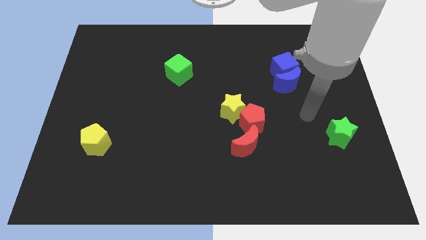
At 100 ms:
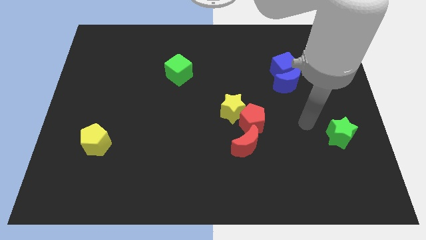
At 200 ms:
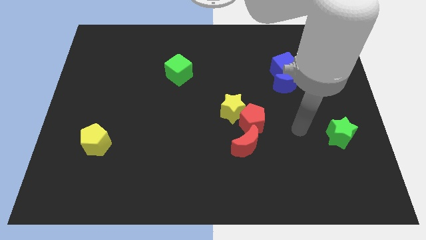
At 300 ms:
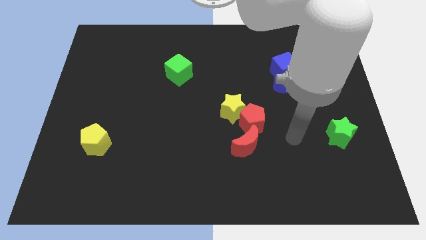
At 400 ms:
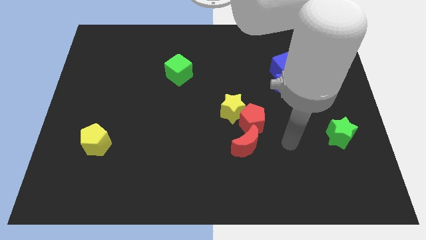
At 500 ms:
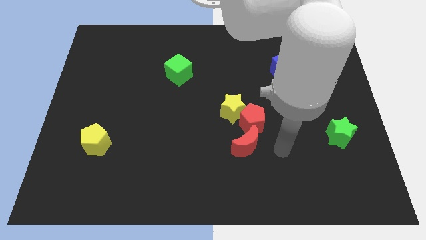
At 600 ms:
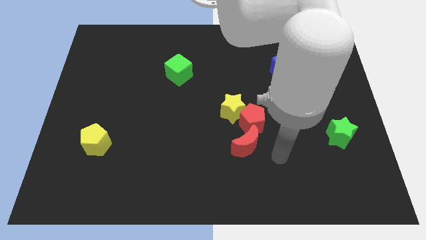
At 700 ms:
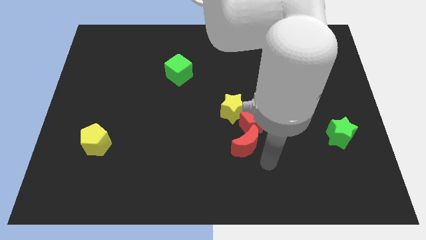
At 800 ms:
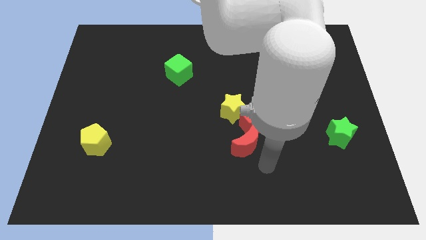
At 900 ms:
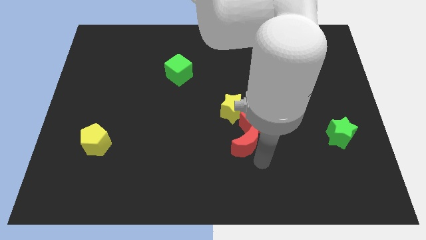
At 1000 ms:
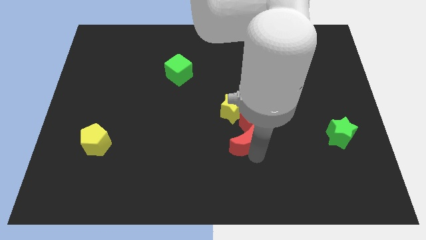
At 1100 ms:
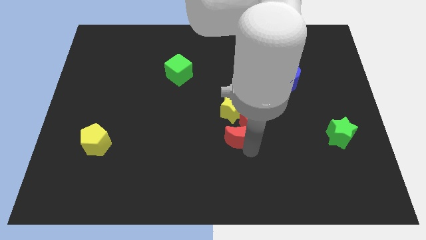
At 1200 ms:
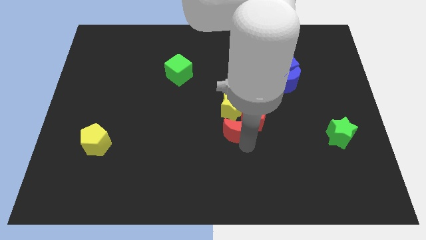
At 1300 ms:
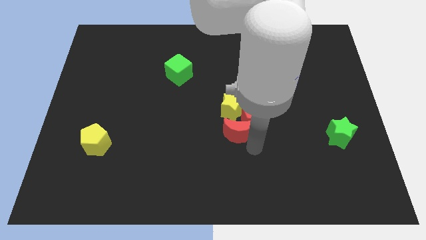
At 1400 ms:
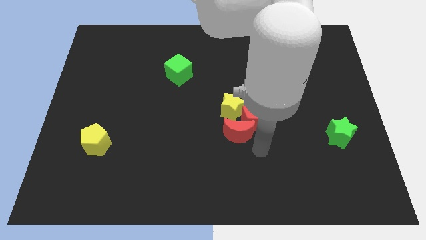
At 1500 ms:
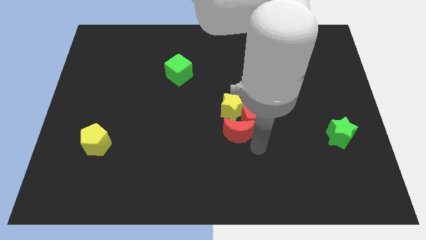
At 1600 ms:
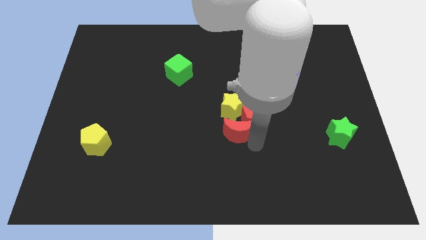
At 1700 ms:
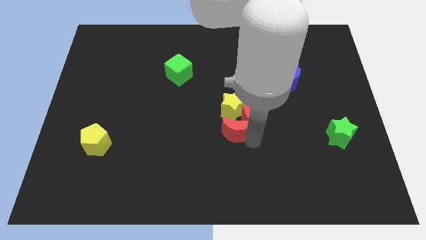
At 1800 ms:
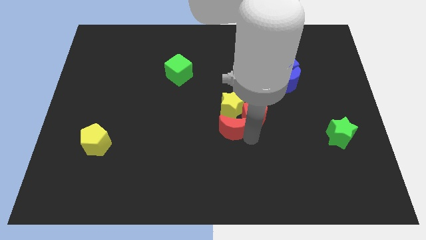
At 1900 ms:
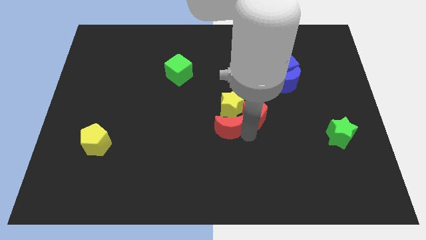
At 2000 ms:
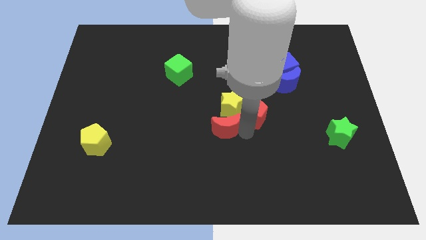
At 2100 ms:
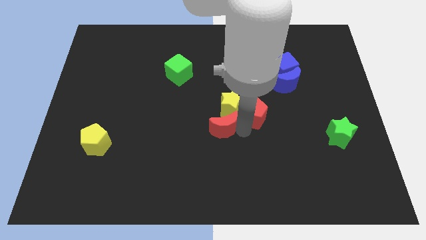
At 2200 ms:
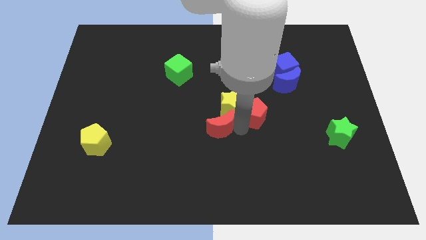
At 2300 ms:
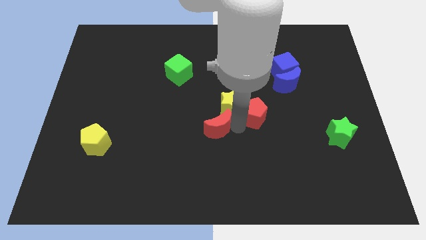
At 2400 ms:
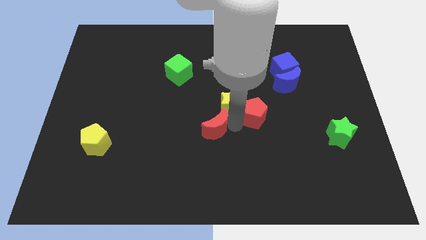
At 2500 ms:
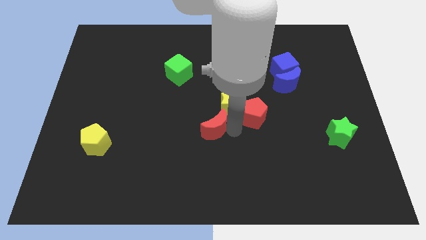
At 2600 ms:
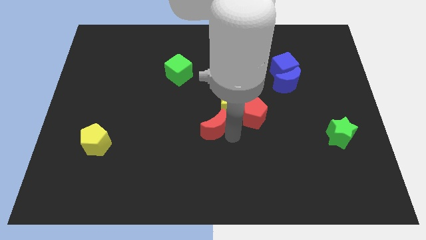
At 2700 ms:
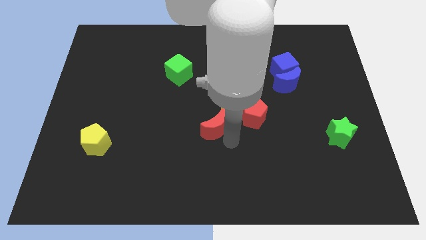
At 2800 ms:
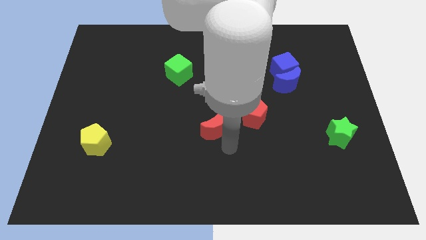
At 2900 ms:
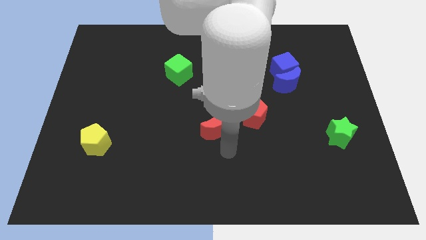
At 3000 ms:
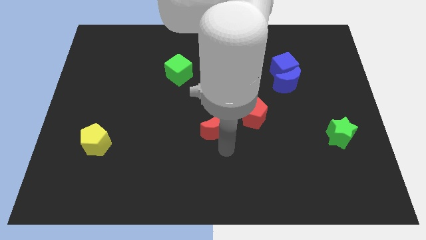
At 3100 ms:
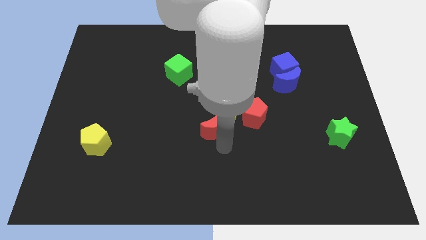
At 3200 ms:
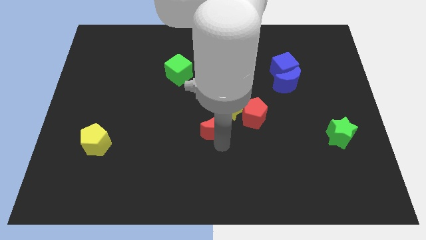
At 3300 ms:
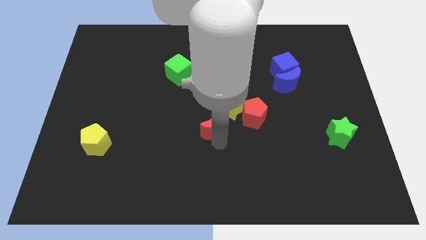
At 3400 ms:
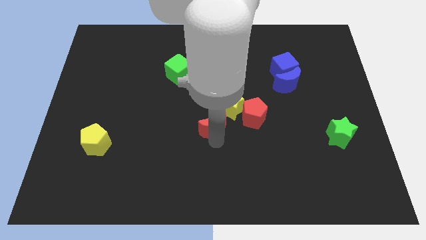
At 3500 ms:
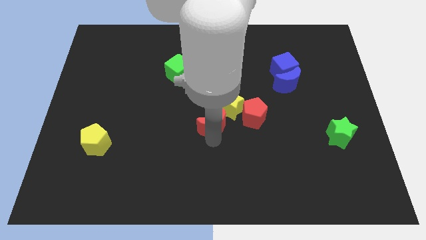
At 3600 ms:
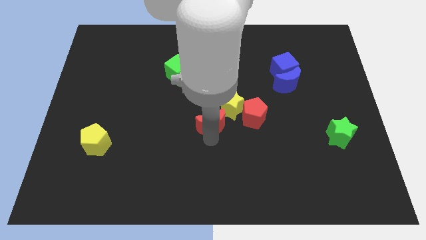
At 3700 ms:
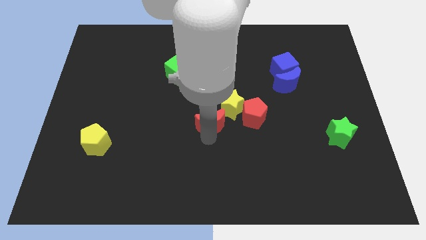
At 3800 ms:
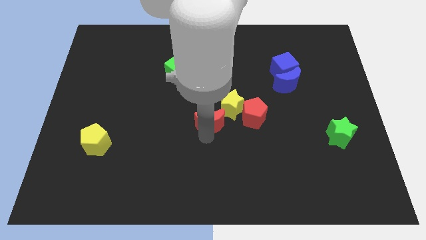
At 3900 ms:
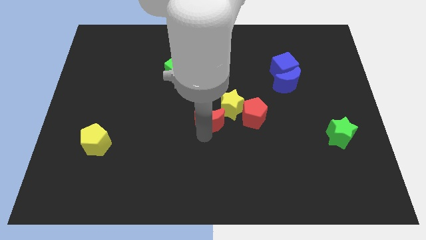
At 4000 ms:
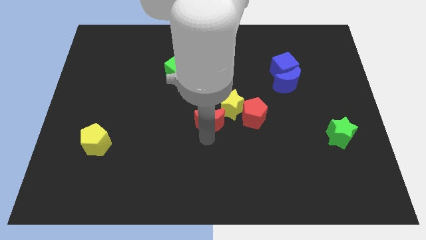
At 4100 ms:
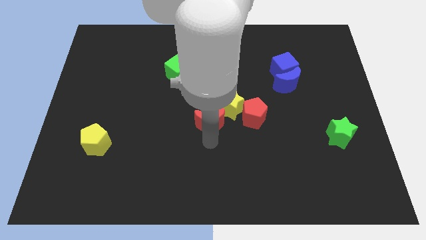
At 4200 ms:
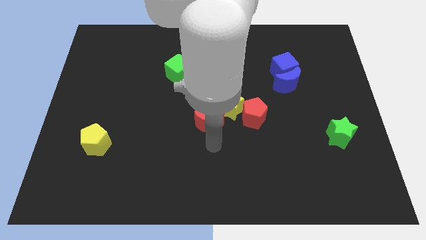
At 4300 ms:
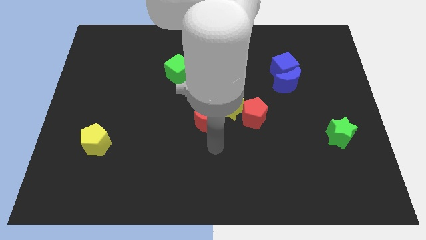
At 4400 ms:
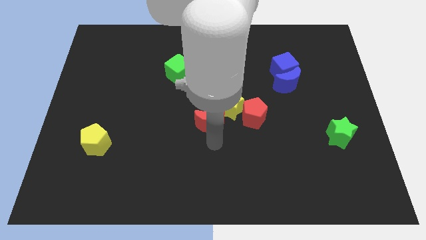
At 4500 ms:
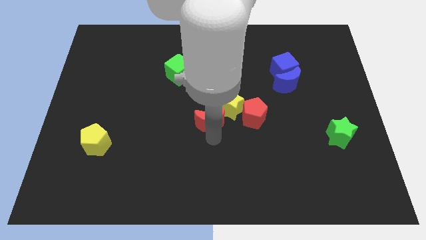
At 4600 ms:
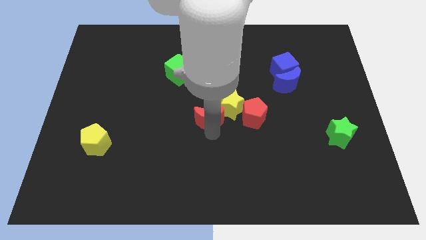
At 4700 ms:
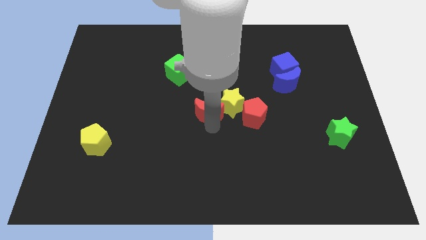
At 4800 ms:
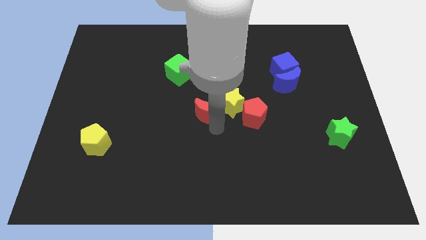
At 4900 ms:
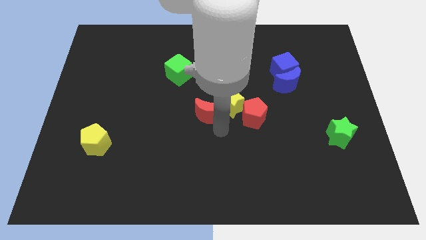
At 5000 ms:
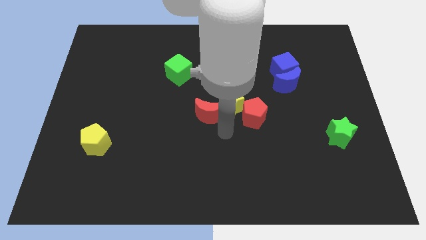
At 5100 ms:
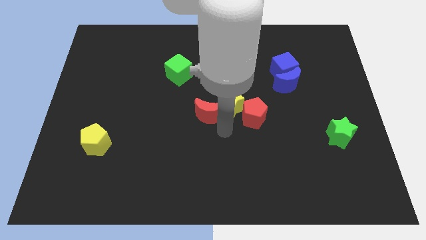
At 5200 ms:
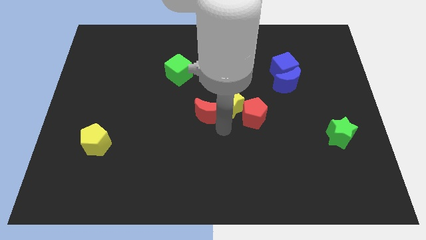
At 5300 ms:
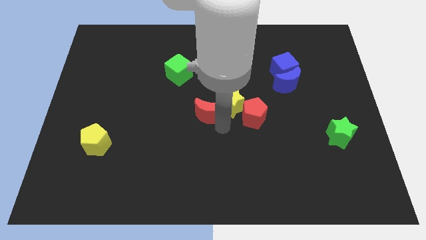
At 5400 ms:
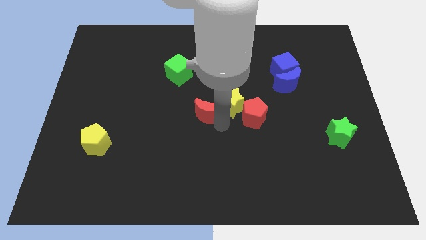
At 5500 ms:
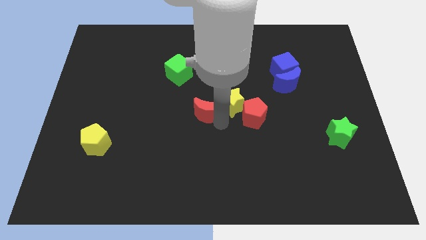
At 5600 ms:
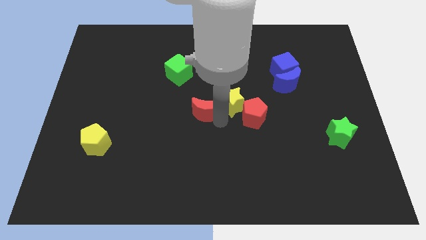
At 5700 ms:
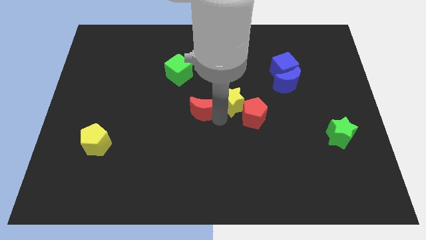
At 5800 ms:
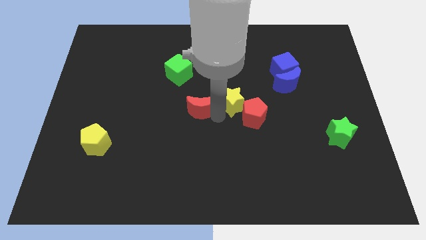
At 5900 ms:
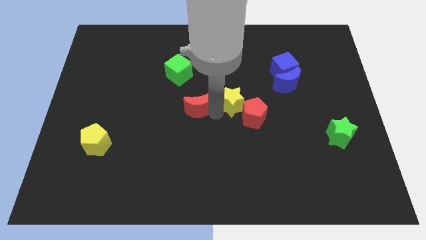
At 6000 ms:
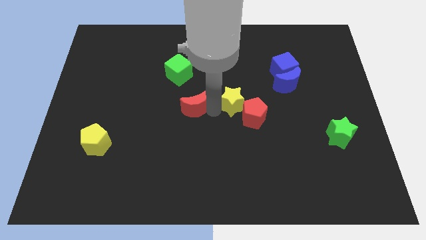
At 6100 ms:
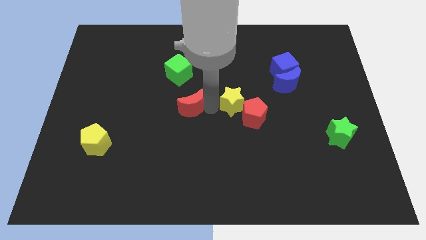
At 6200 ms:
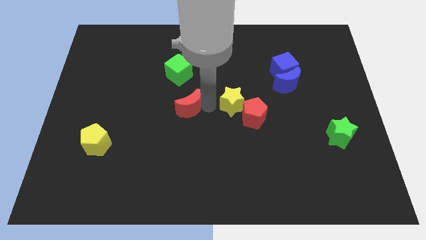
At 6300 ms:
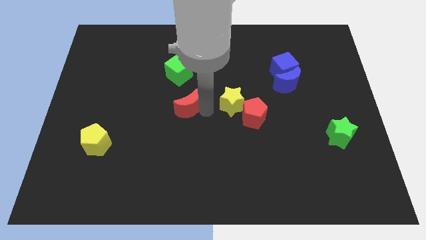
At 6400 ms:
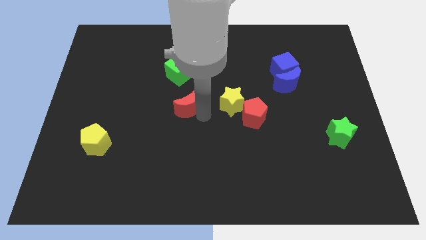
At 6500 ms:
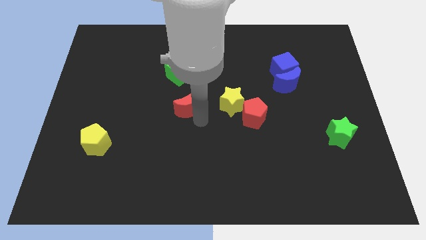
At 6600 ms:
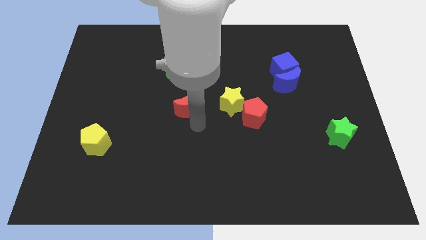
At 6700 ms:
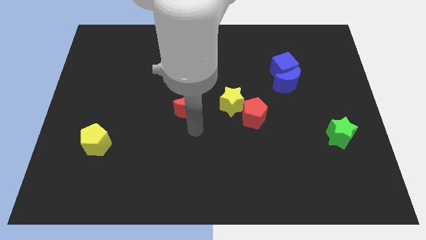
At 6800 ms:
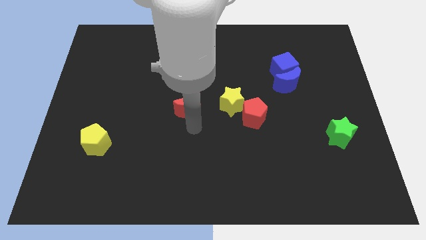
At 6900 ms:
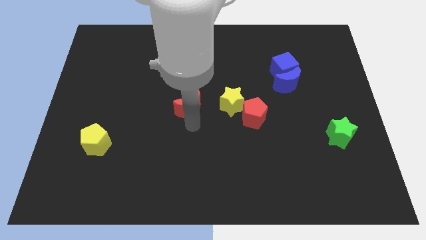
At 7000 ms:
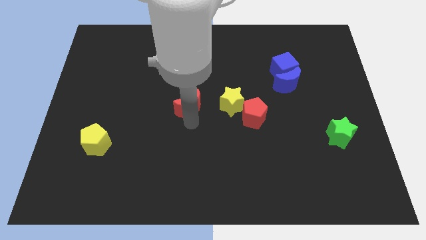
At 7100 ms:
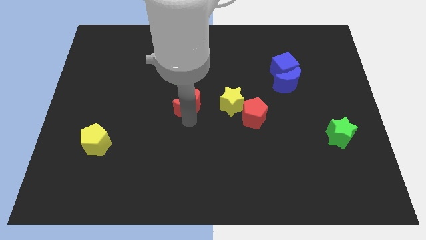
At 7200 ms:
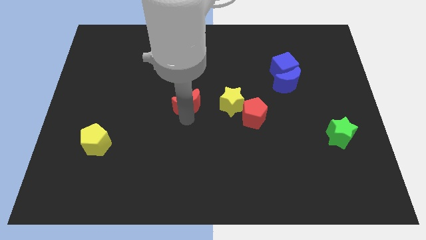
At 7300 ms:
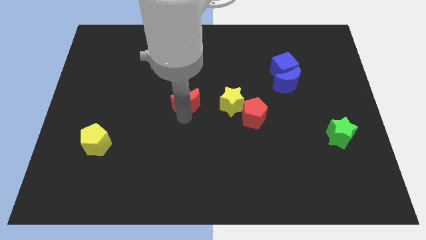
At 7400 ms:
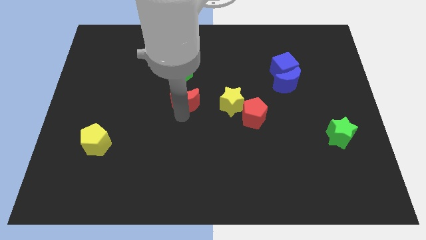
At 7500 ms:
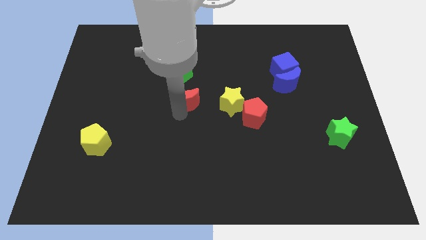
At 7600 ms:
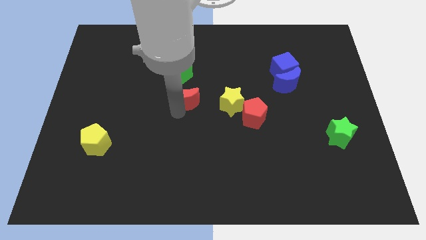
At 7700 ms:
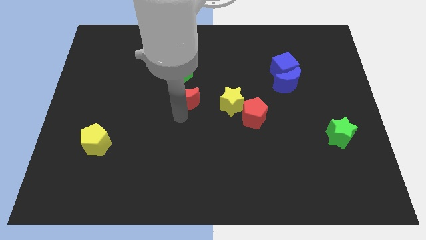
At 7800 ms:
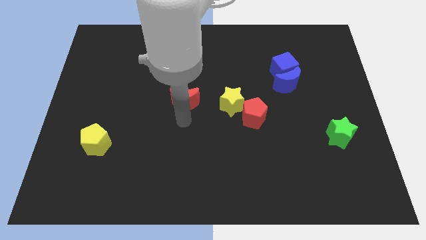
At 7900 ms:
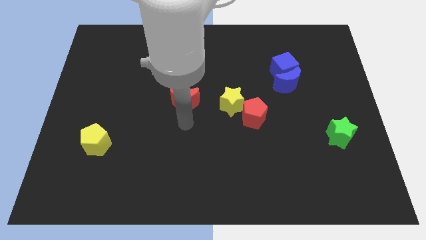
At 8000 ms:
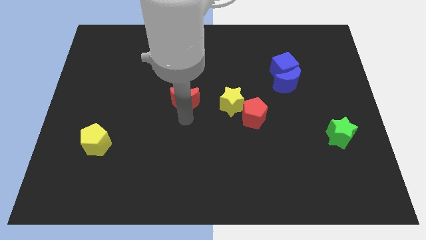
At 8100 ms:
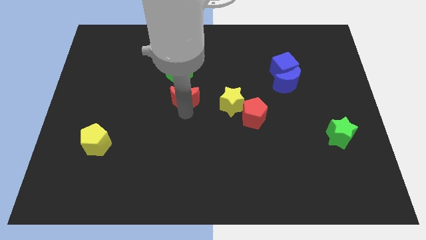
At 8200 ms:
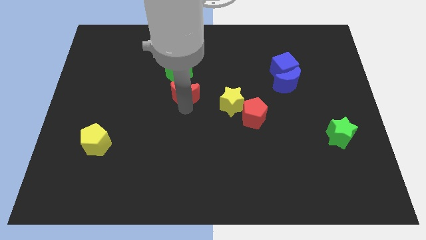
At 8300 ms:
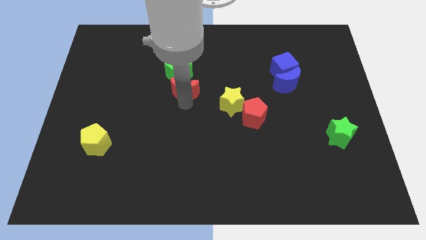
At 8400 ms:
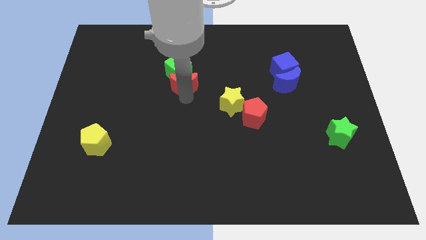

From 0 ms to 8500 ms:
put the red moon next to the green cube
